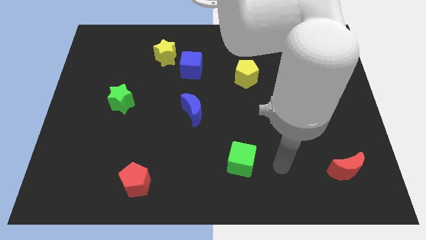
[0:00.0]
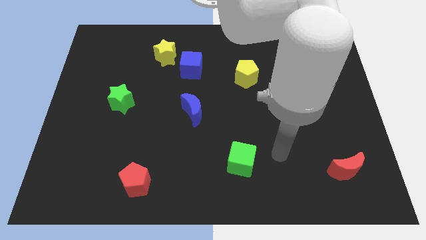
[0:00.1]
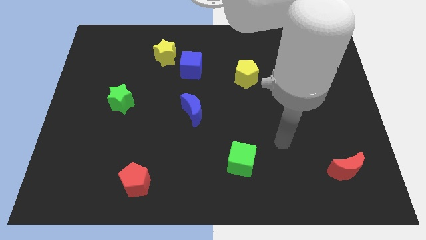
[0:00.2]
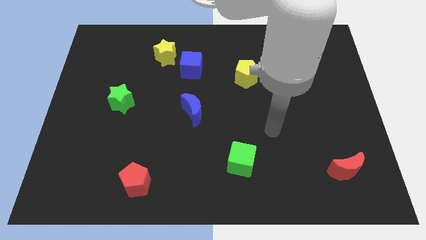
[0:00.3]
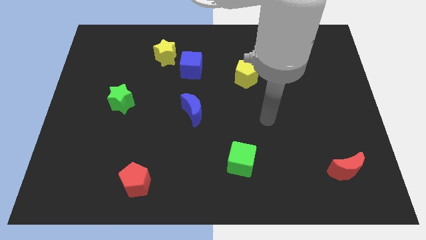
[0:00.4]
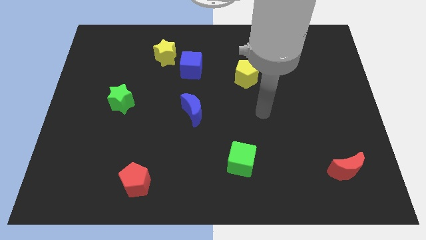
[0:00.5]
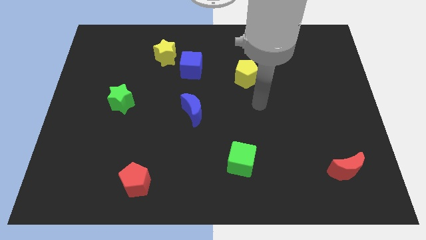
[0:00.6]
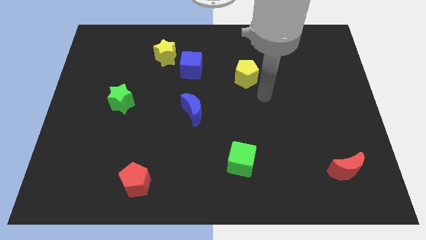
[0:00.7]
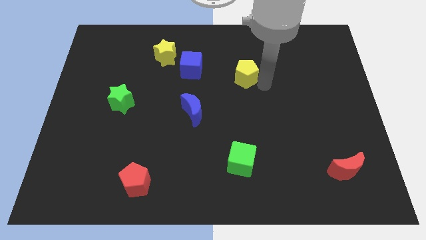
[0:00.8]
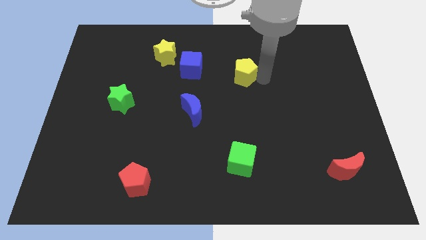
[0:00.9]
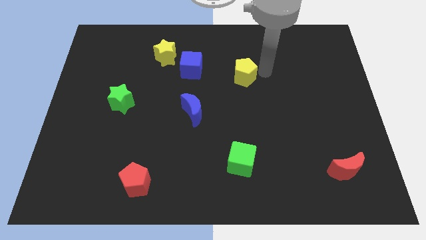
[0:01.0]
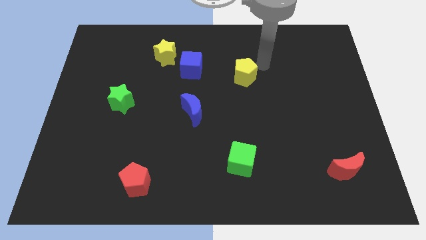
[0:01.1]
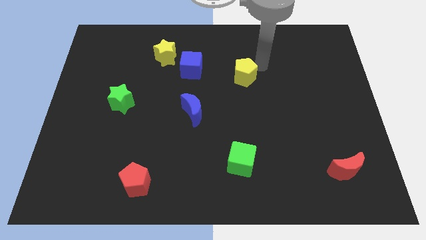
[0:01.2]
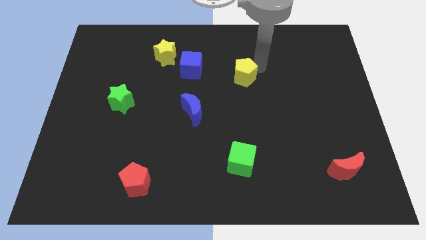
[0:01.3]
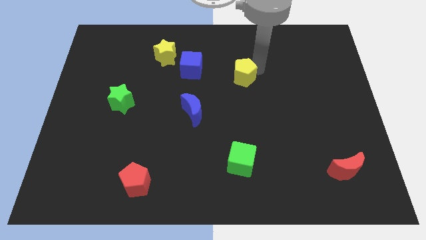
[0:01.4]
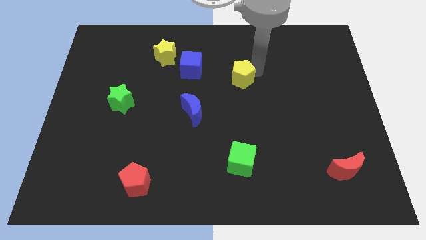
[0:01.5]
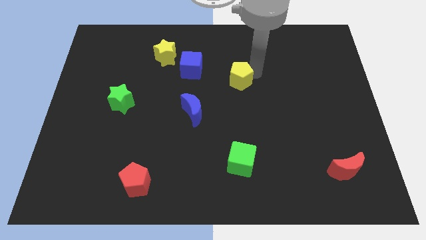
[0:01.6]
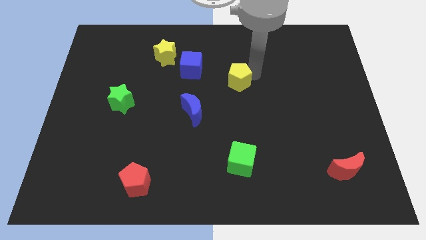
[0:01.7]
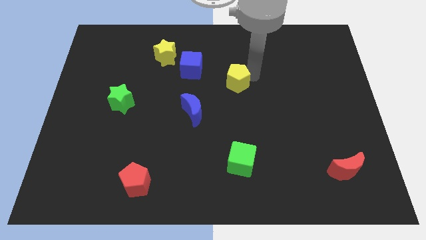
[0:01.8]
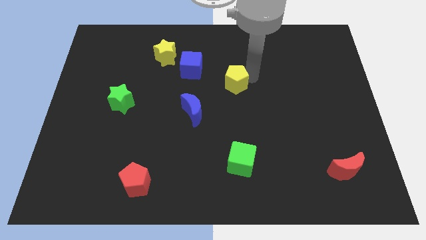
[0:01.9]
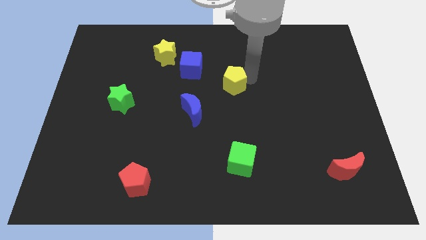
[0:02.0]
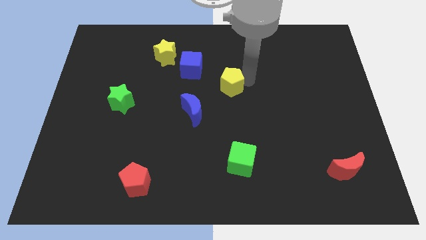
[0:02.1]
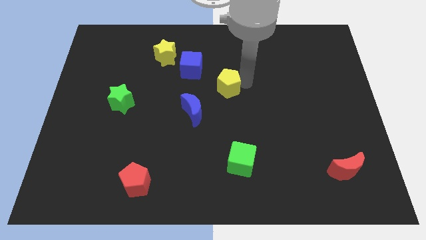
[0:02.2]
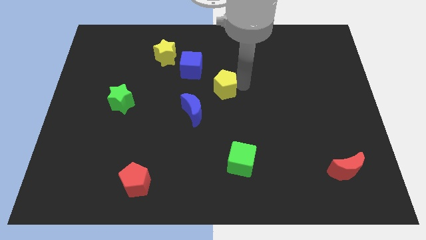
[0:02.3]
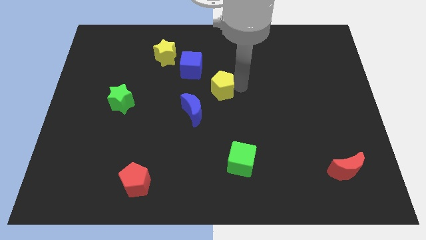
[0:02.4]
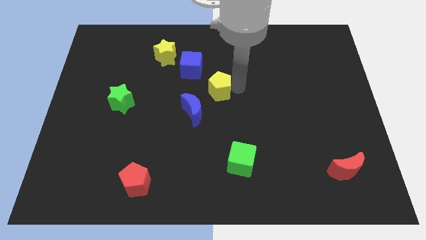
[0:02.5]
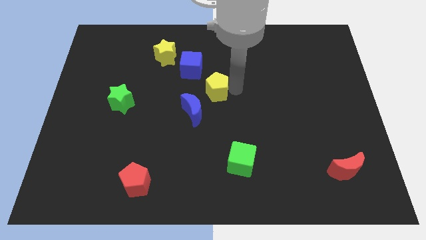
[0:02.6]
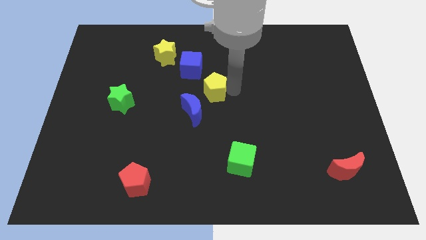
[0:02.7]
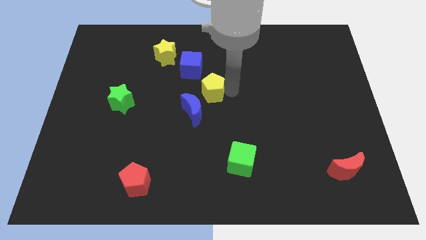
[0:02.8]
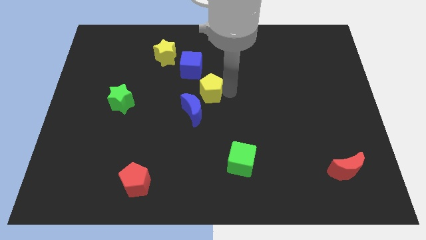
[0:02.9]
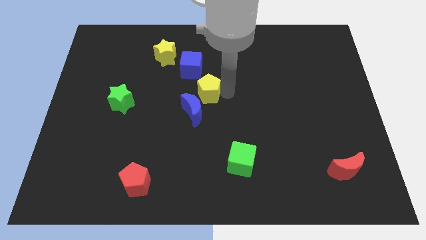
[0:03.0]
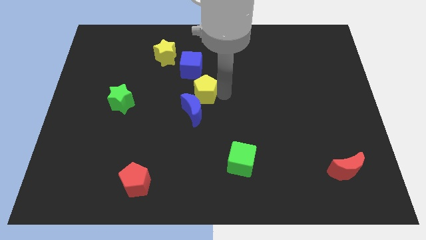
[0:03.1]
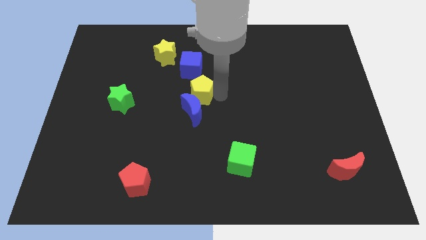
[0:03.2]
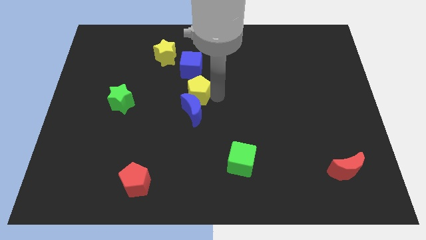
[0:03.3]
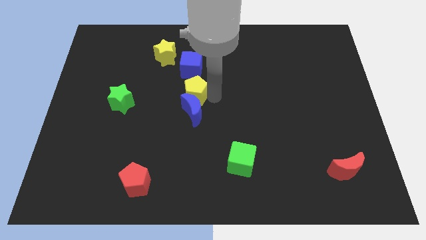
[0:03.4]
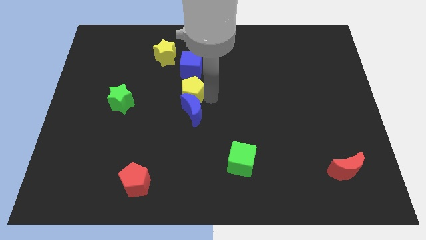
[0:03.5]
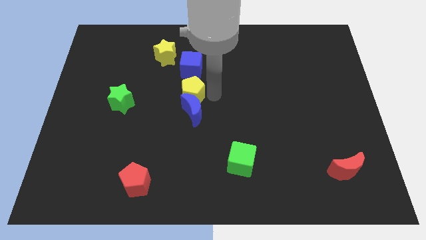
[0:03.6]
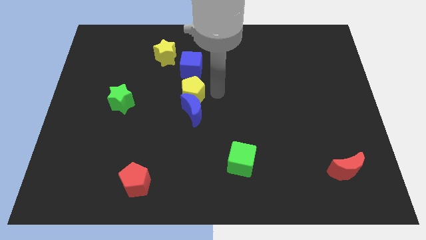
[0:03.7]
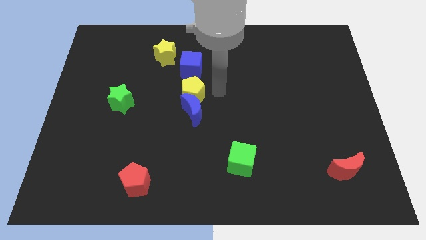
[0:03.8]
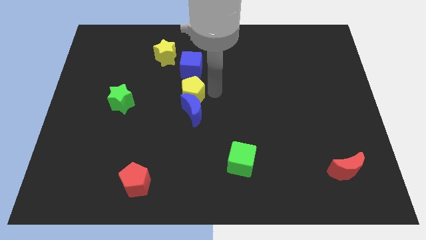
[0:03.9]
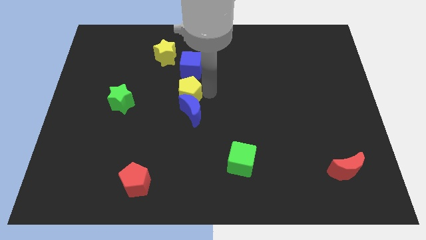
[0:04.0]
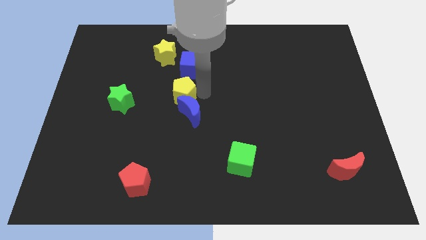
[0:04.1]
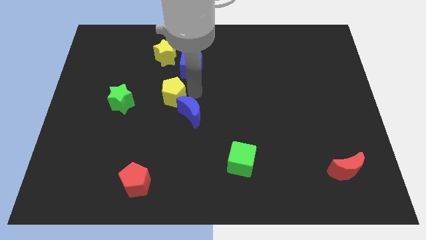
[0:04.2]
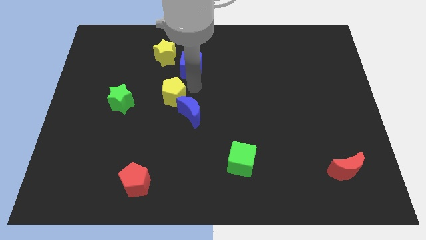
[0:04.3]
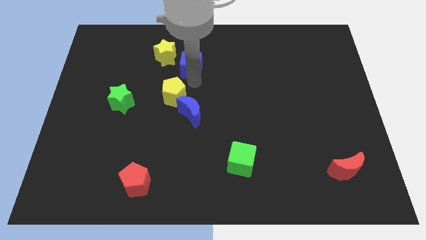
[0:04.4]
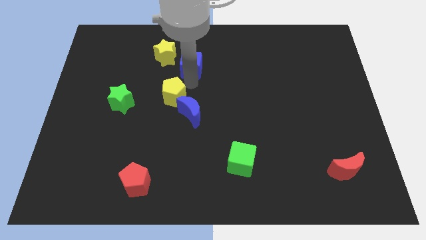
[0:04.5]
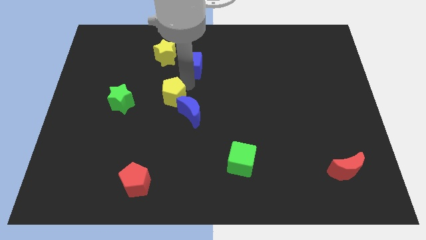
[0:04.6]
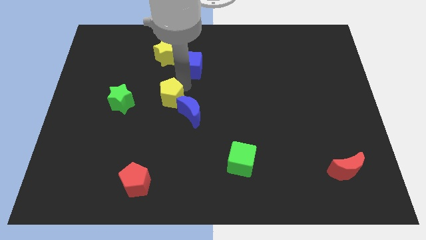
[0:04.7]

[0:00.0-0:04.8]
put the yellow pentagon left of the blue moon

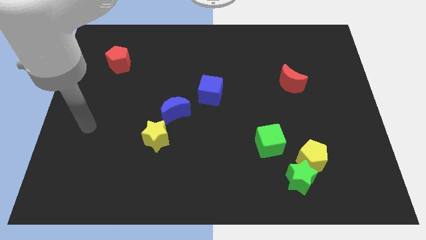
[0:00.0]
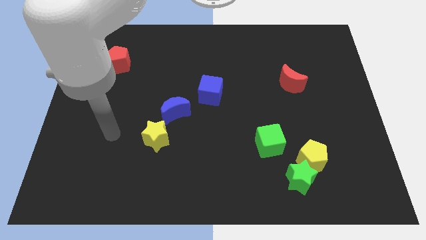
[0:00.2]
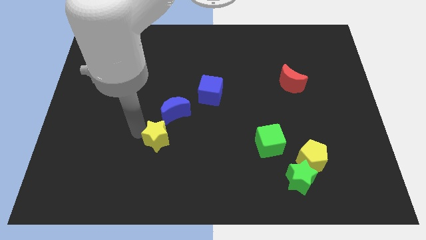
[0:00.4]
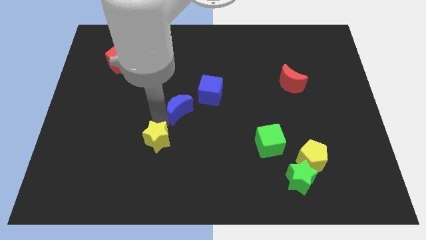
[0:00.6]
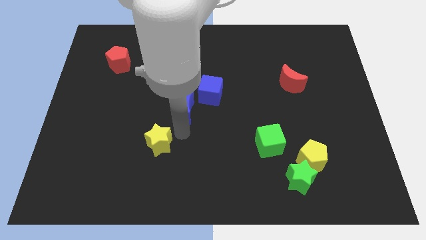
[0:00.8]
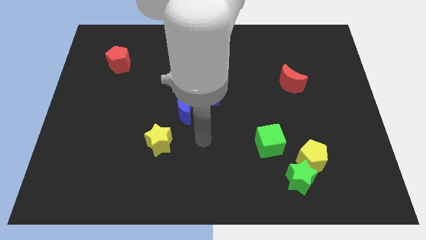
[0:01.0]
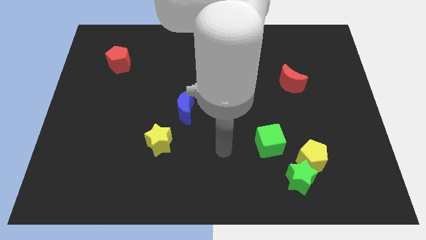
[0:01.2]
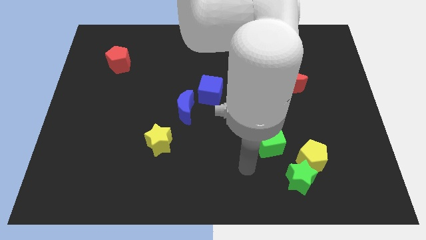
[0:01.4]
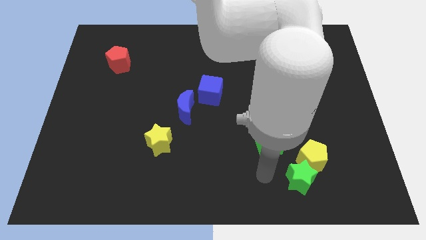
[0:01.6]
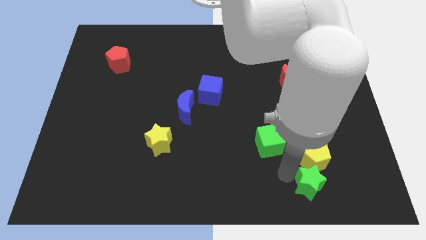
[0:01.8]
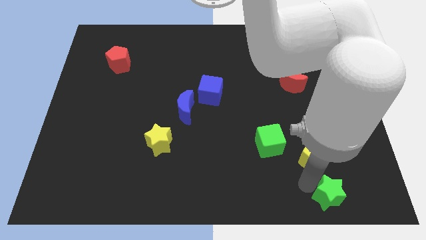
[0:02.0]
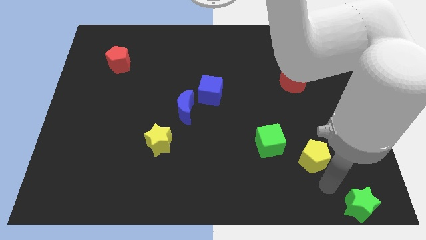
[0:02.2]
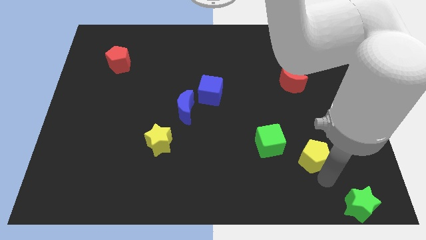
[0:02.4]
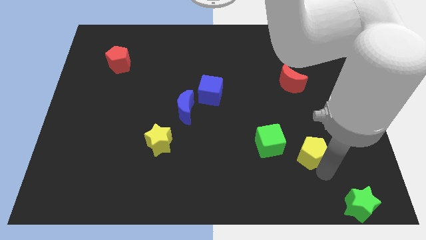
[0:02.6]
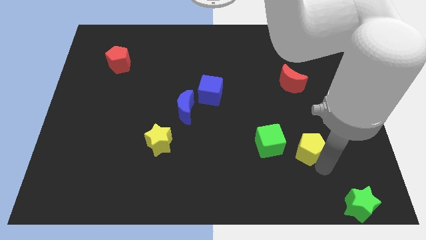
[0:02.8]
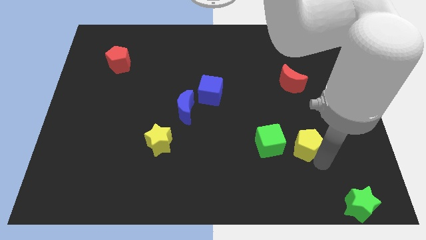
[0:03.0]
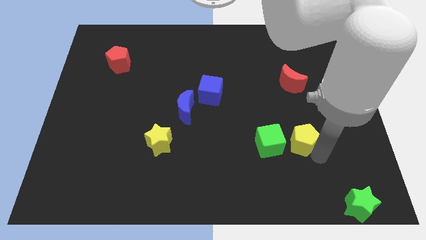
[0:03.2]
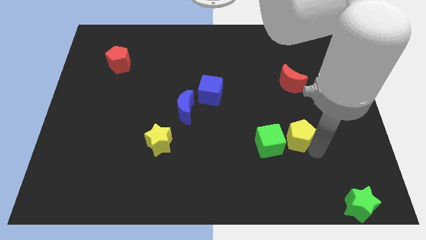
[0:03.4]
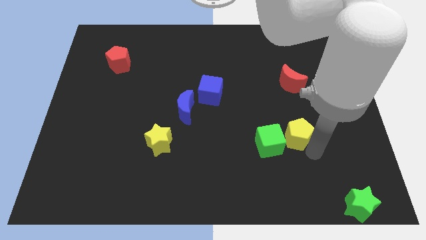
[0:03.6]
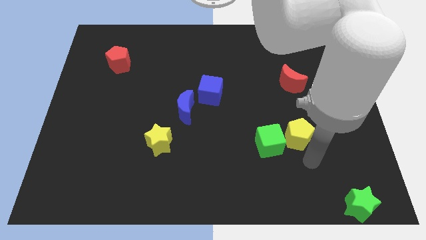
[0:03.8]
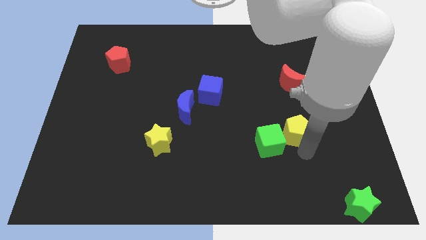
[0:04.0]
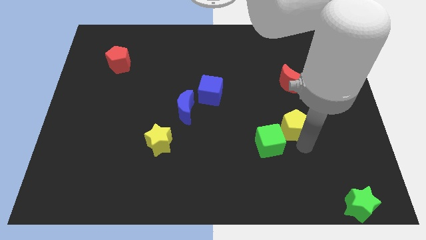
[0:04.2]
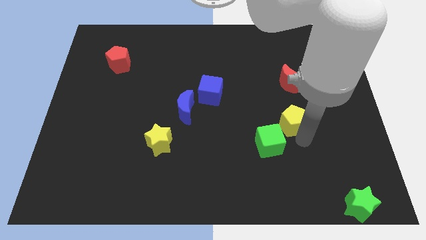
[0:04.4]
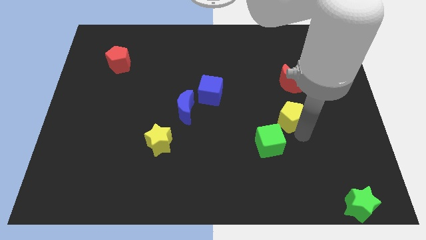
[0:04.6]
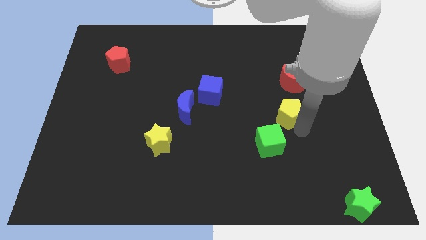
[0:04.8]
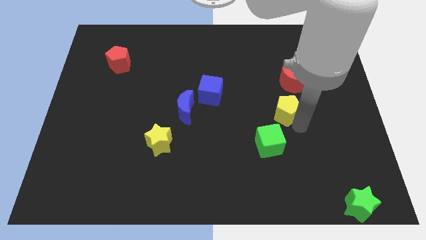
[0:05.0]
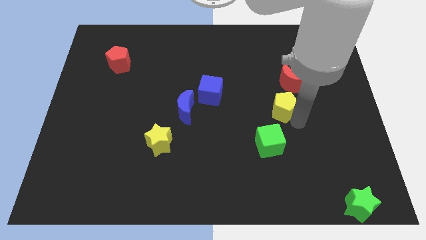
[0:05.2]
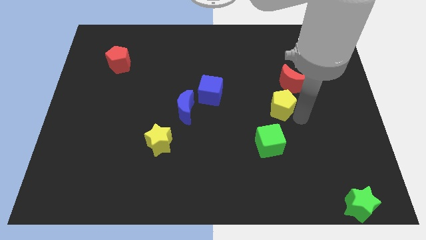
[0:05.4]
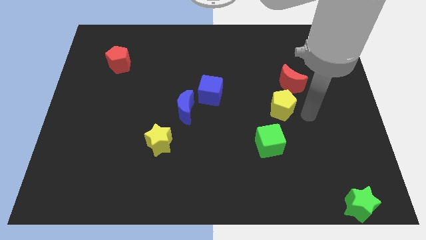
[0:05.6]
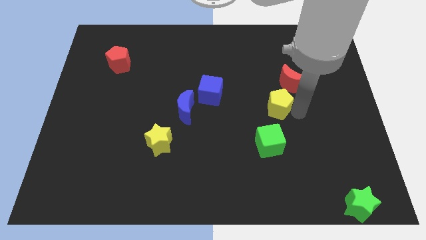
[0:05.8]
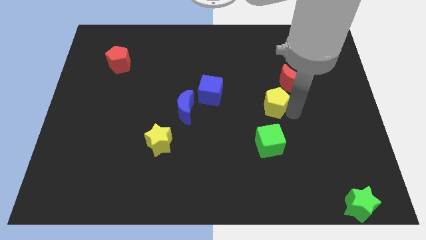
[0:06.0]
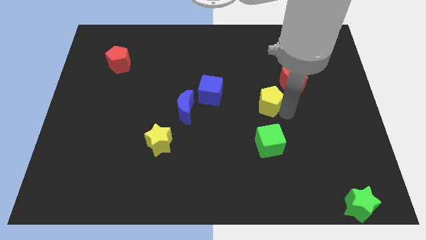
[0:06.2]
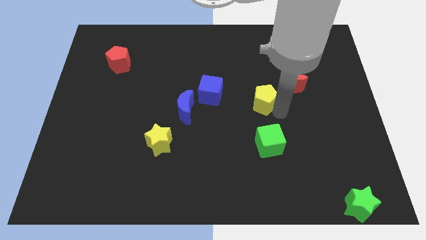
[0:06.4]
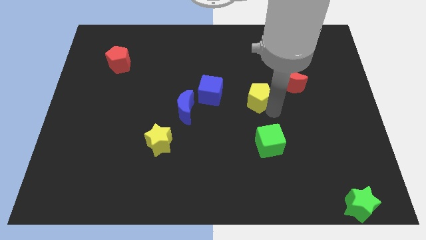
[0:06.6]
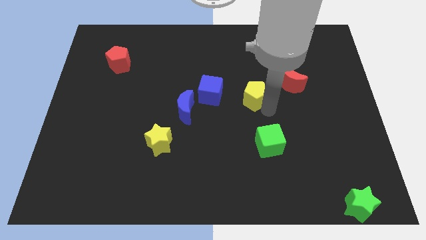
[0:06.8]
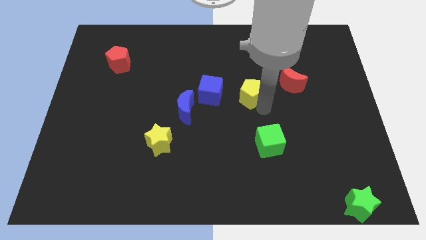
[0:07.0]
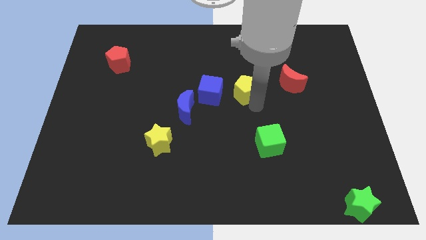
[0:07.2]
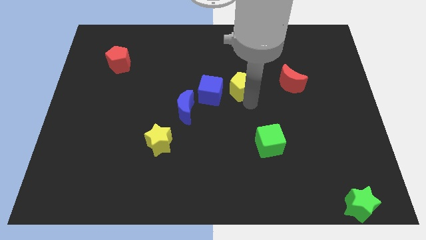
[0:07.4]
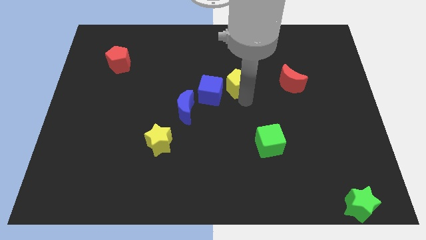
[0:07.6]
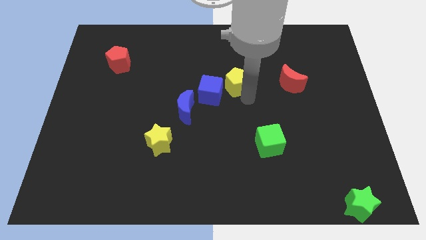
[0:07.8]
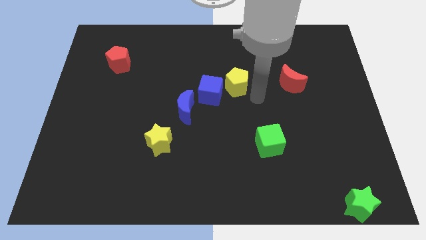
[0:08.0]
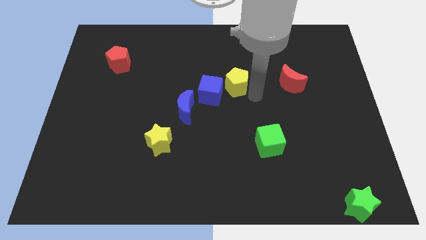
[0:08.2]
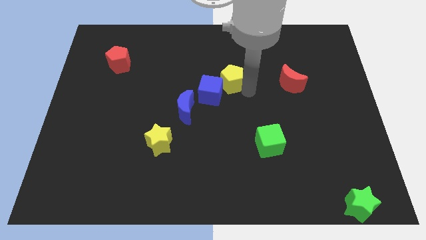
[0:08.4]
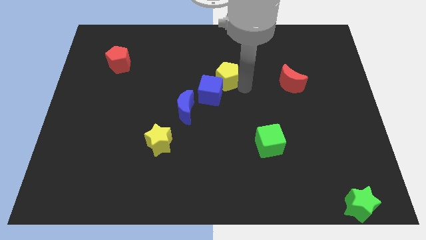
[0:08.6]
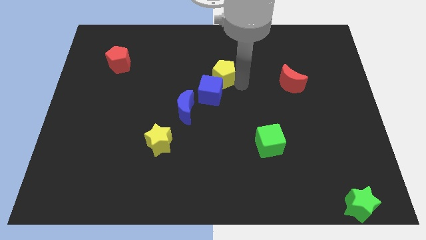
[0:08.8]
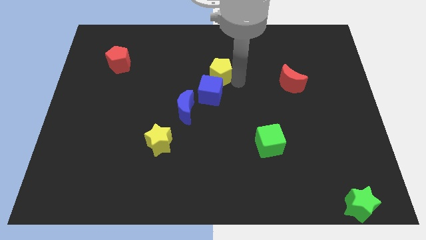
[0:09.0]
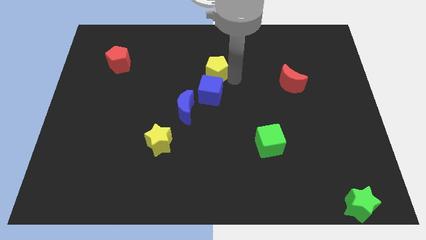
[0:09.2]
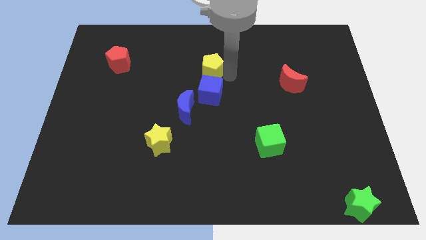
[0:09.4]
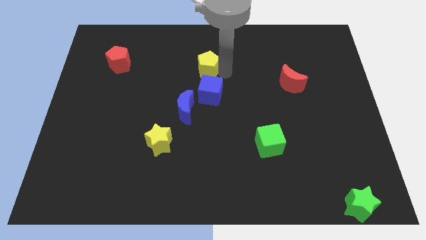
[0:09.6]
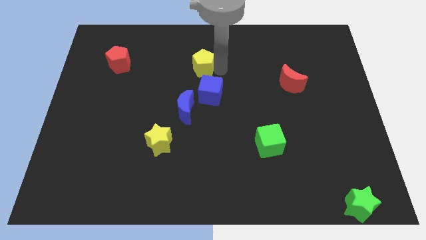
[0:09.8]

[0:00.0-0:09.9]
put the yellow pentagon to the top left side of the blue cube
